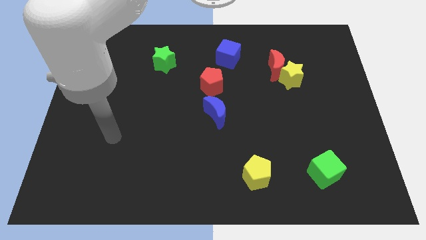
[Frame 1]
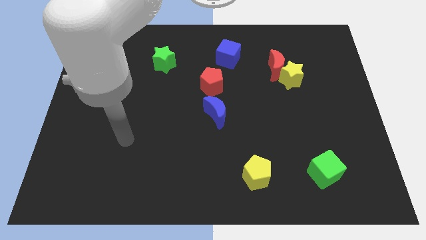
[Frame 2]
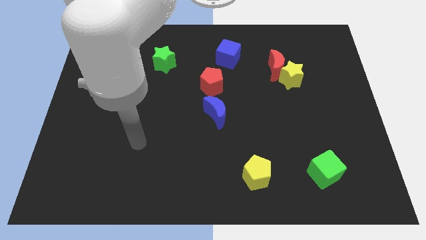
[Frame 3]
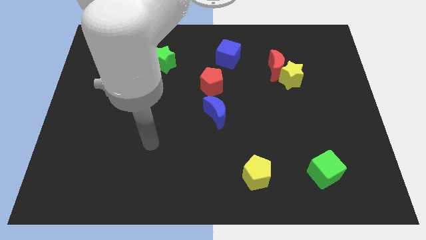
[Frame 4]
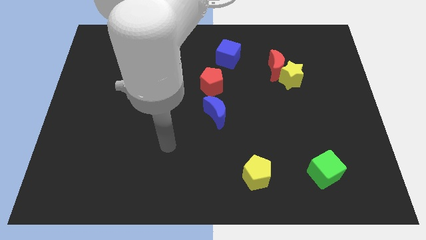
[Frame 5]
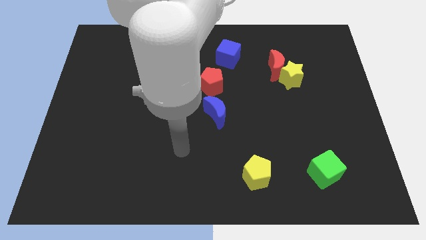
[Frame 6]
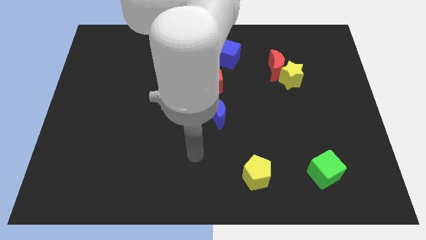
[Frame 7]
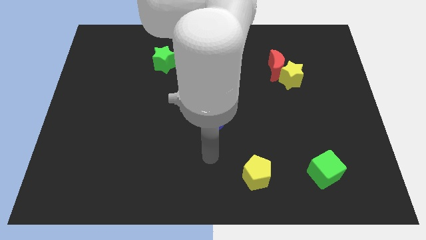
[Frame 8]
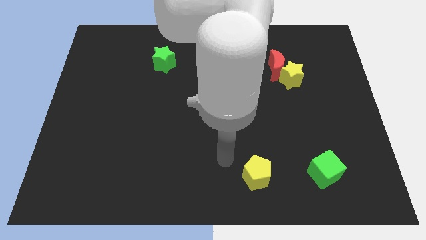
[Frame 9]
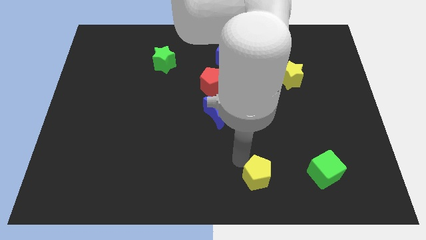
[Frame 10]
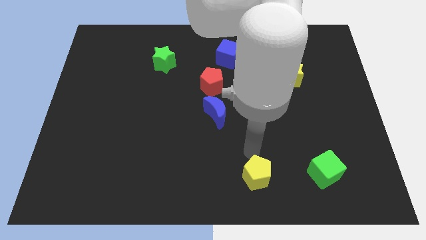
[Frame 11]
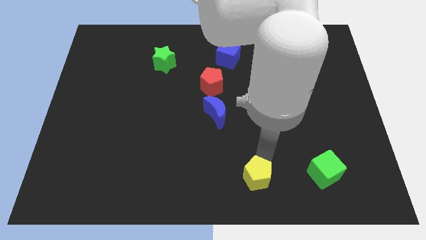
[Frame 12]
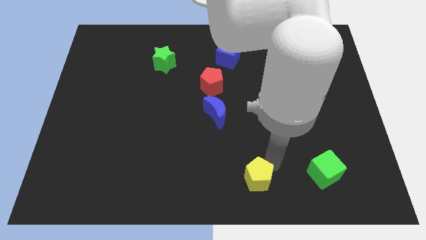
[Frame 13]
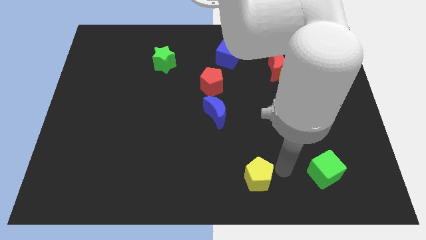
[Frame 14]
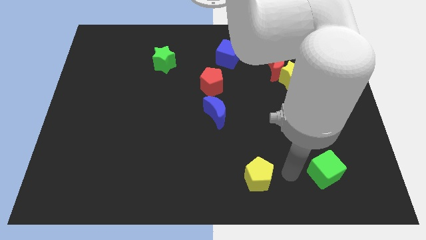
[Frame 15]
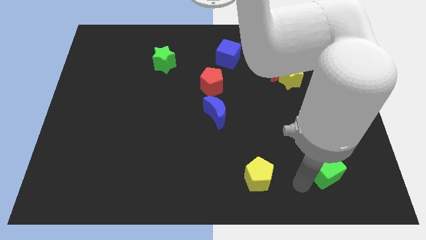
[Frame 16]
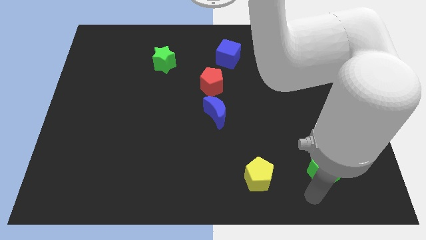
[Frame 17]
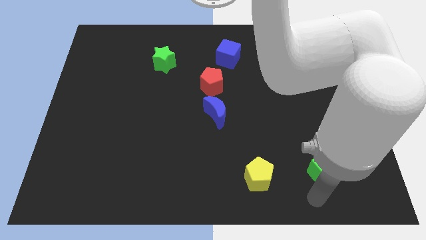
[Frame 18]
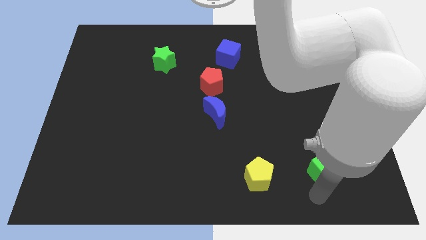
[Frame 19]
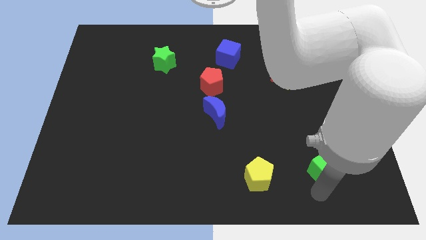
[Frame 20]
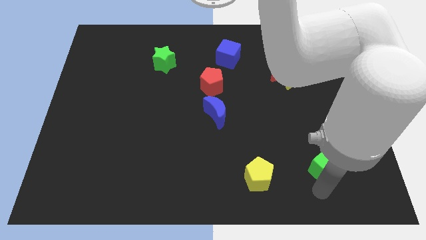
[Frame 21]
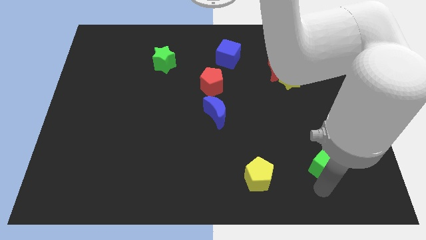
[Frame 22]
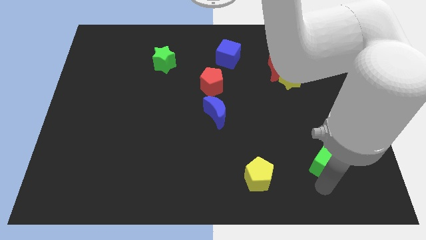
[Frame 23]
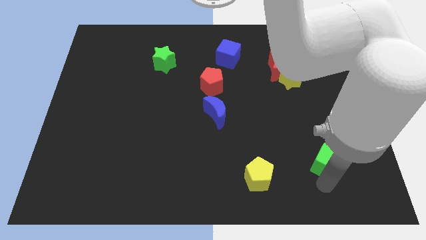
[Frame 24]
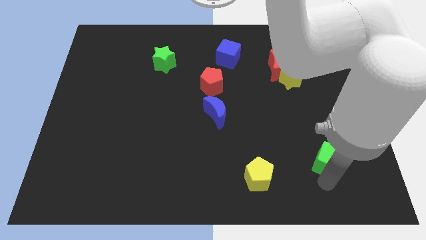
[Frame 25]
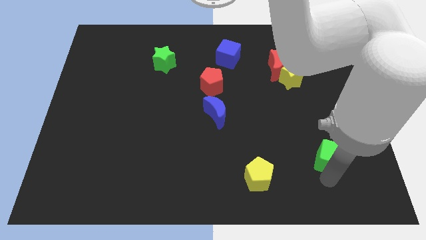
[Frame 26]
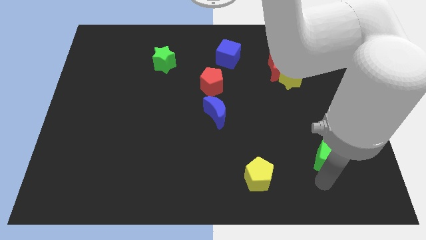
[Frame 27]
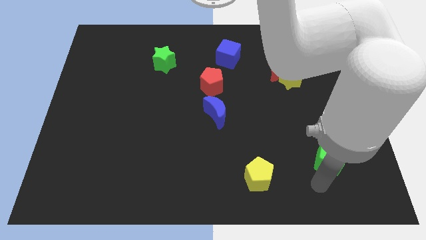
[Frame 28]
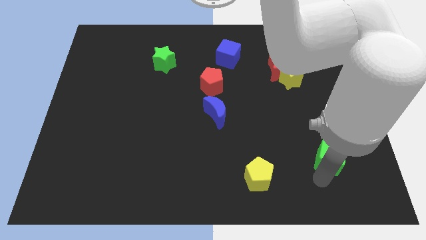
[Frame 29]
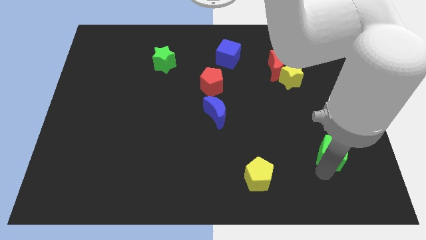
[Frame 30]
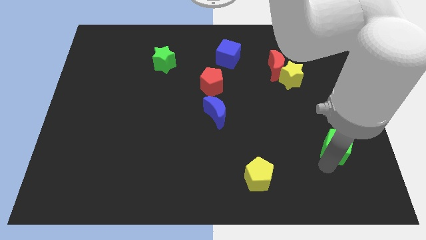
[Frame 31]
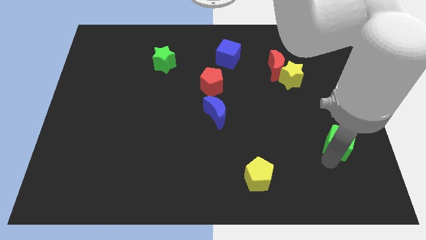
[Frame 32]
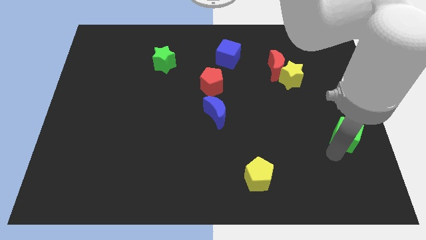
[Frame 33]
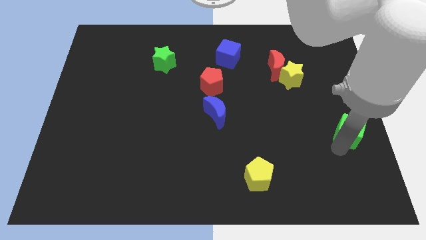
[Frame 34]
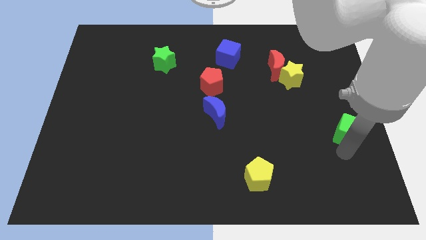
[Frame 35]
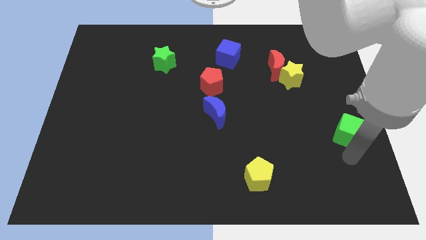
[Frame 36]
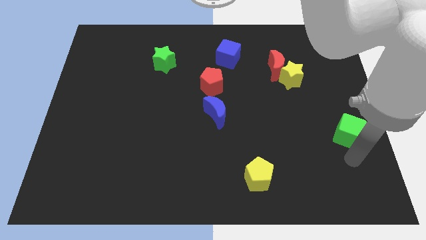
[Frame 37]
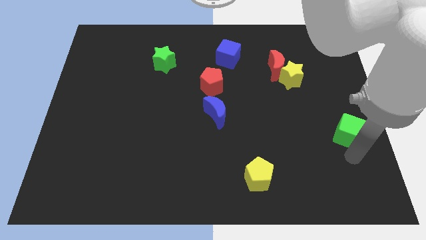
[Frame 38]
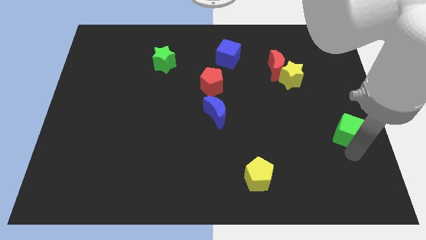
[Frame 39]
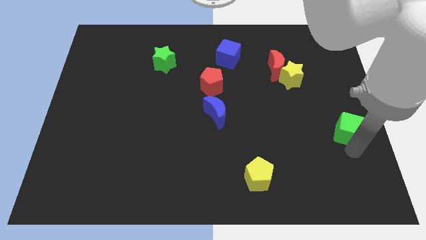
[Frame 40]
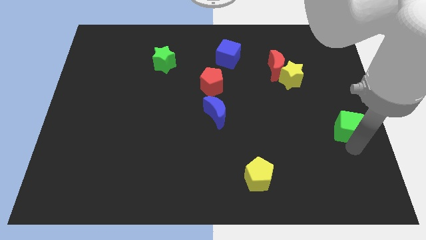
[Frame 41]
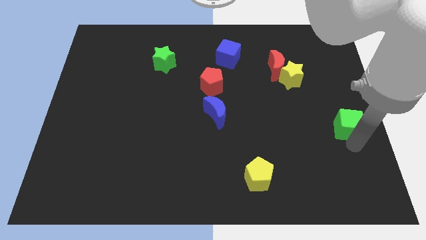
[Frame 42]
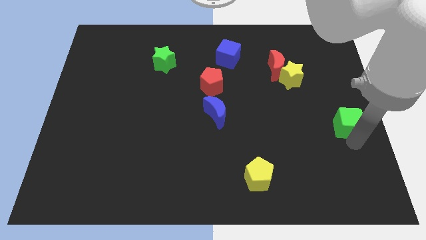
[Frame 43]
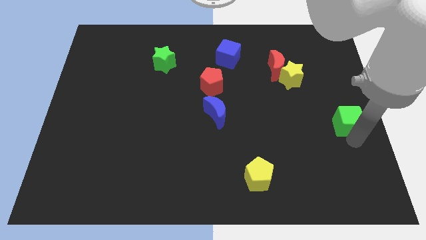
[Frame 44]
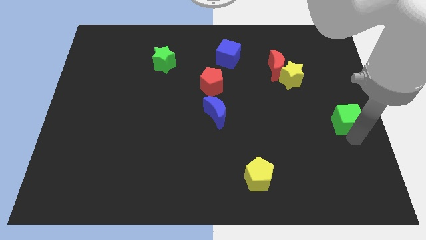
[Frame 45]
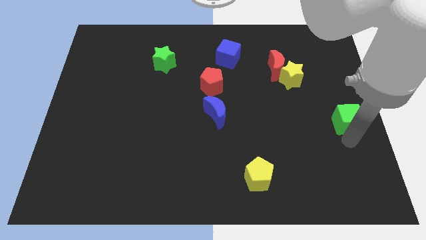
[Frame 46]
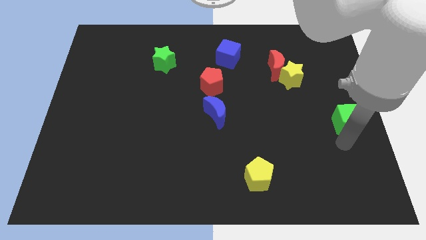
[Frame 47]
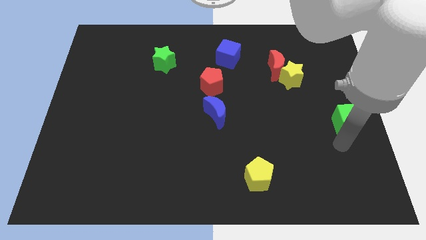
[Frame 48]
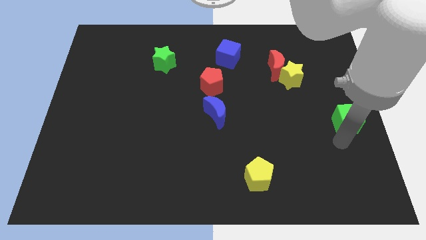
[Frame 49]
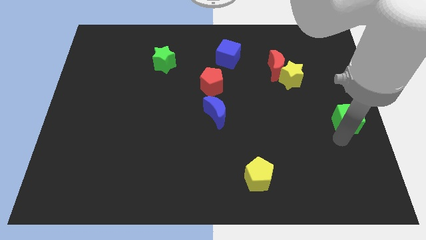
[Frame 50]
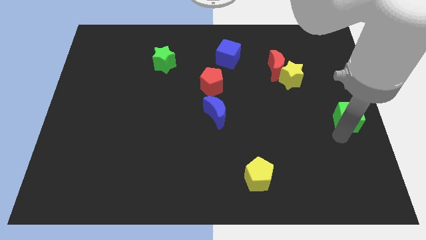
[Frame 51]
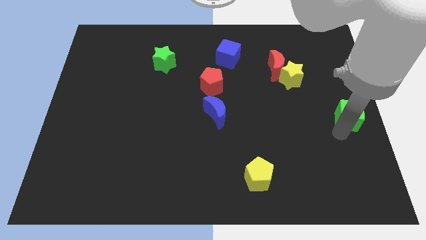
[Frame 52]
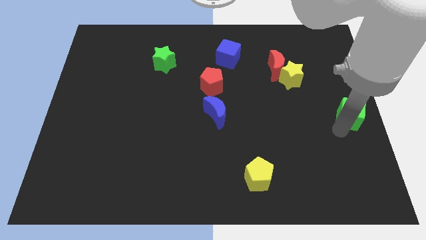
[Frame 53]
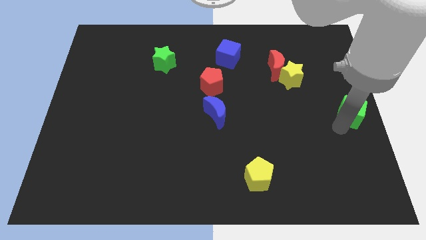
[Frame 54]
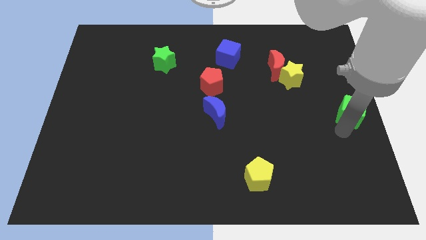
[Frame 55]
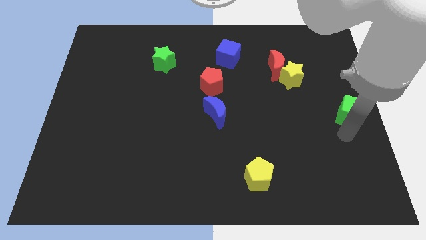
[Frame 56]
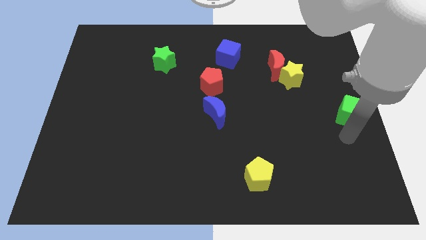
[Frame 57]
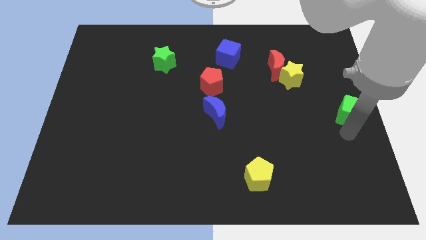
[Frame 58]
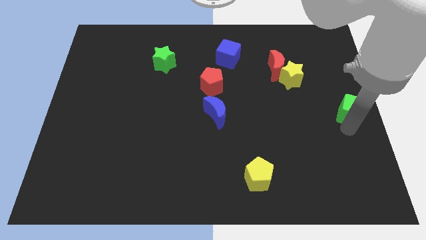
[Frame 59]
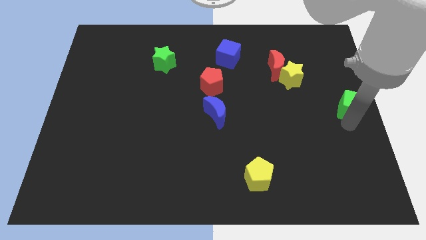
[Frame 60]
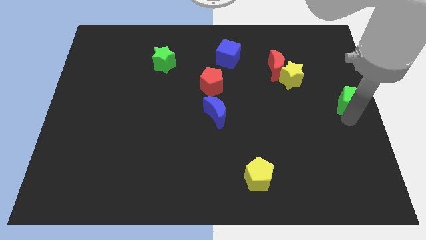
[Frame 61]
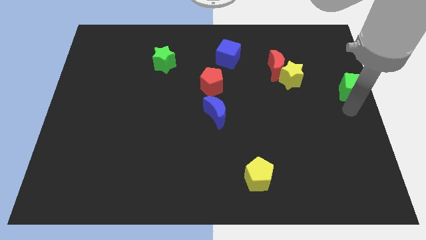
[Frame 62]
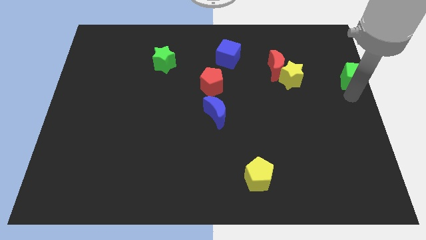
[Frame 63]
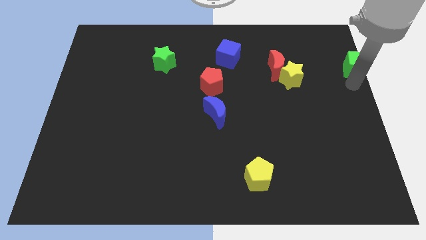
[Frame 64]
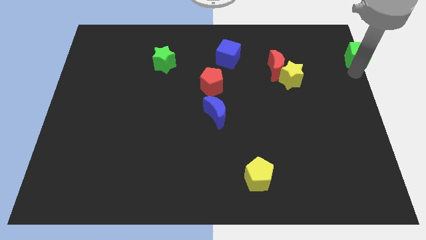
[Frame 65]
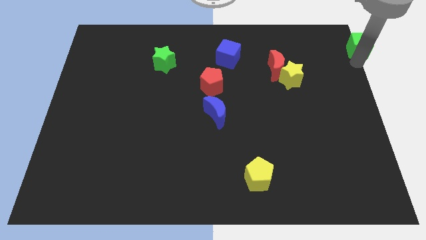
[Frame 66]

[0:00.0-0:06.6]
put the green cube to the upper right corner

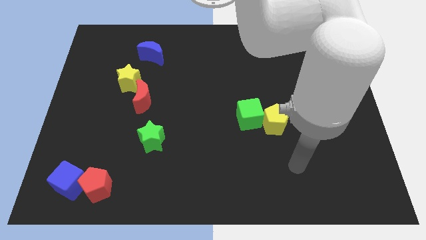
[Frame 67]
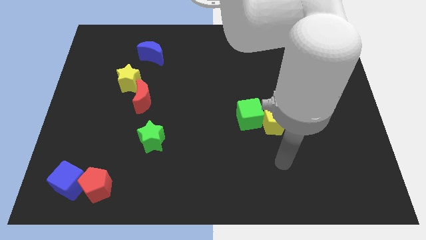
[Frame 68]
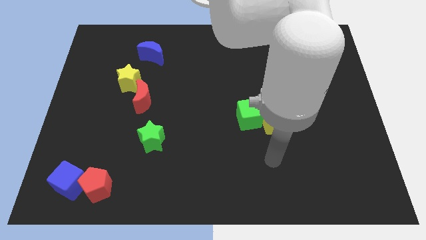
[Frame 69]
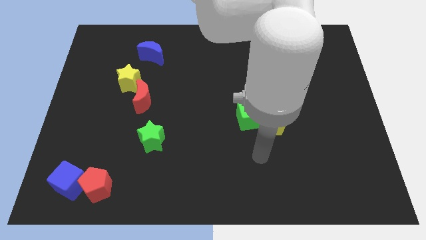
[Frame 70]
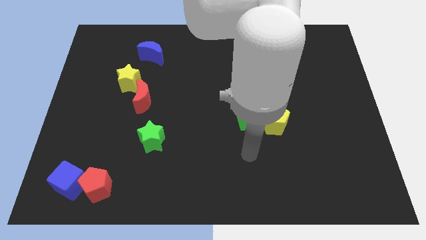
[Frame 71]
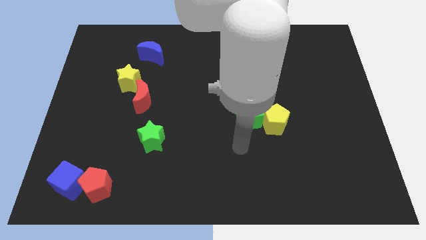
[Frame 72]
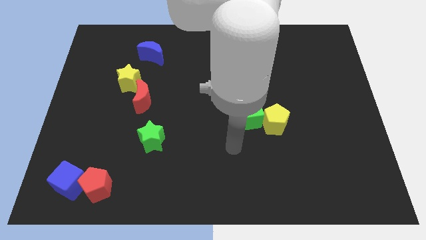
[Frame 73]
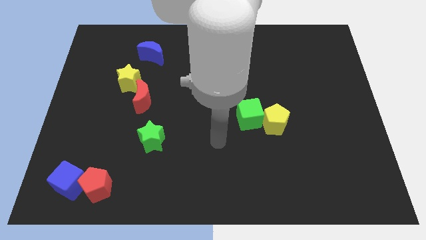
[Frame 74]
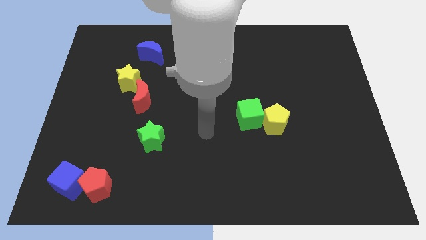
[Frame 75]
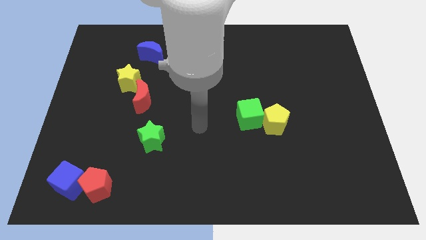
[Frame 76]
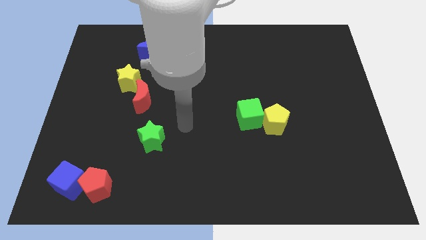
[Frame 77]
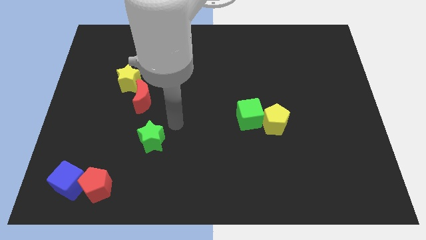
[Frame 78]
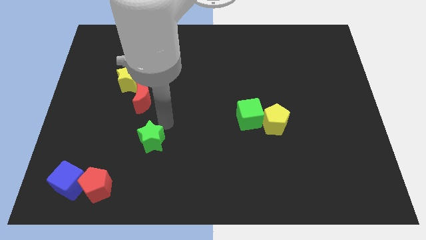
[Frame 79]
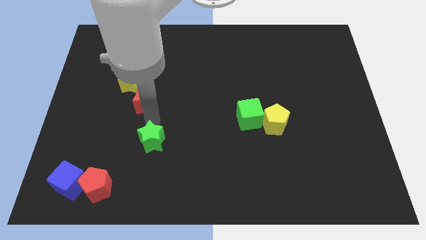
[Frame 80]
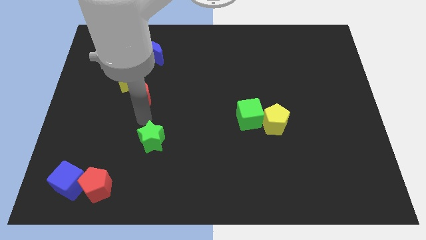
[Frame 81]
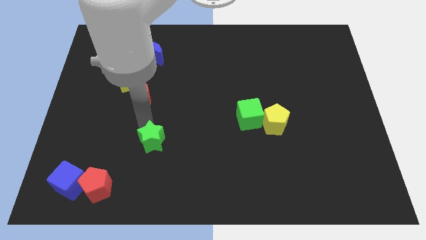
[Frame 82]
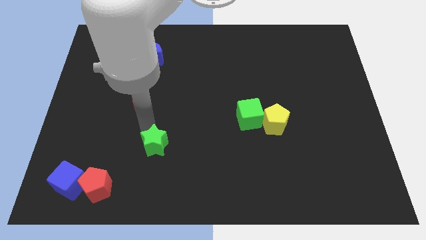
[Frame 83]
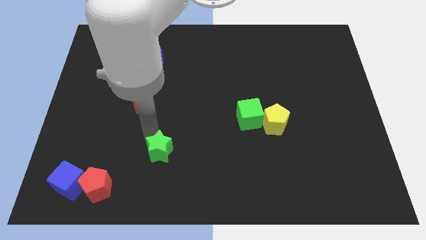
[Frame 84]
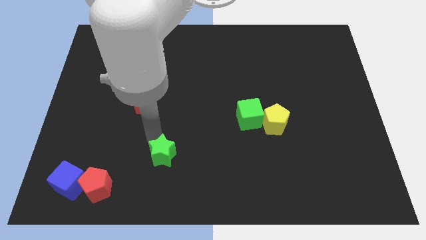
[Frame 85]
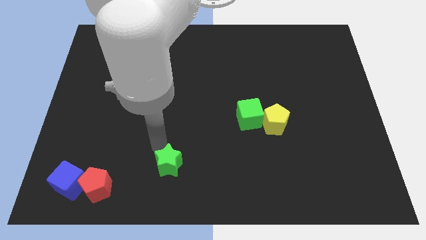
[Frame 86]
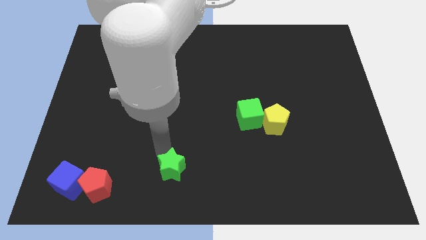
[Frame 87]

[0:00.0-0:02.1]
slide the green star to the bottom side
